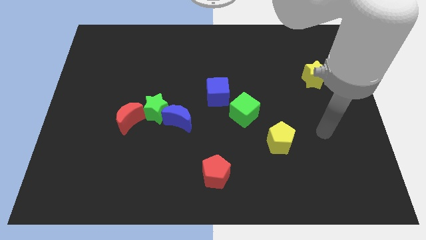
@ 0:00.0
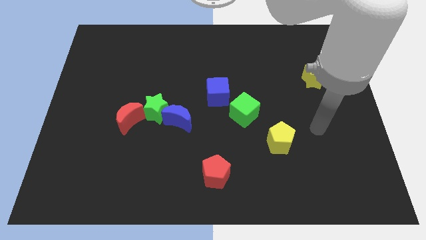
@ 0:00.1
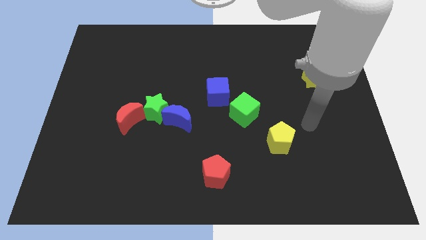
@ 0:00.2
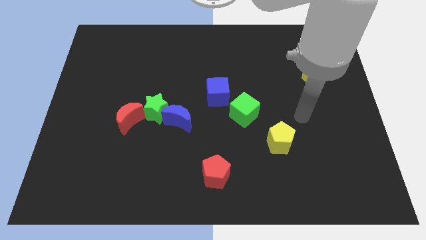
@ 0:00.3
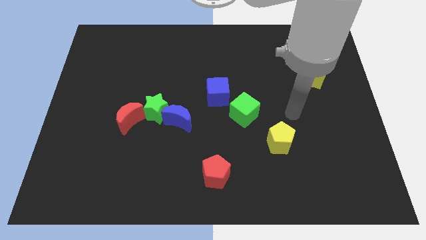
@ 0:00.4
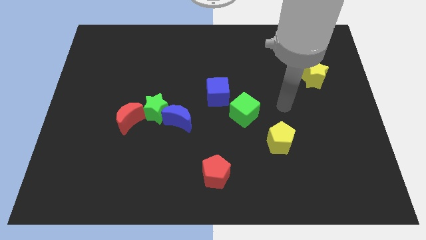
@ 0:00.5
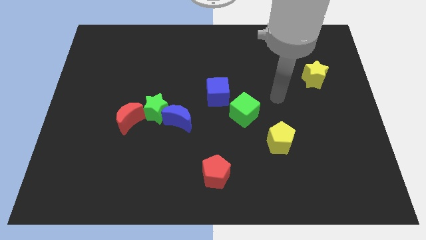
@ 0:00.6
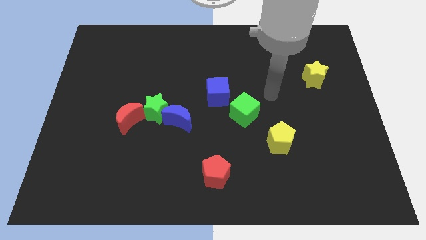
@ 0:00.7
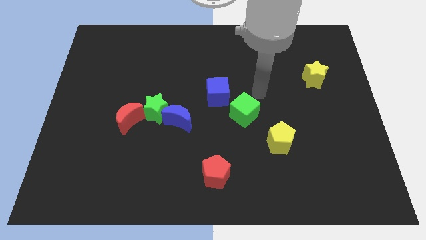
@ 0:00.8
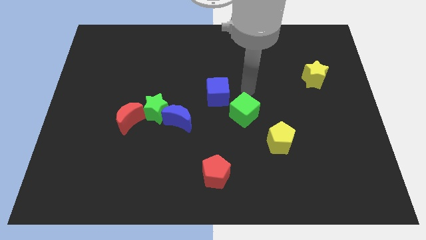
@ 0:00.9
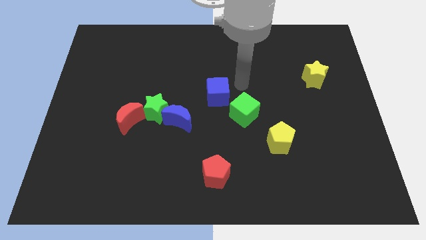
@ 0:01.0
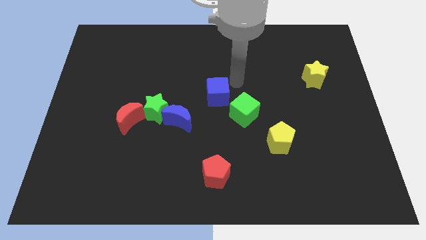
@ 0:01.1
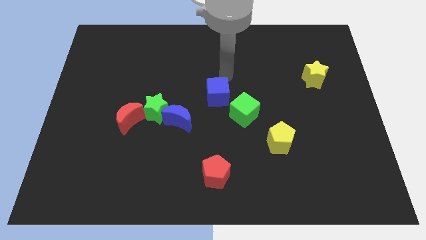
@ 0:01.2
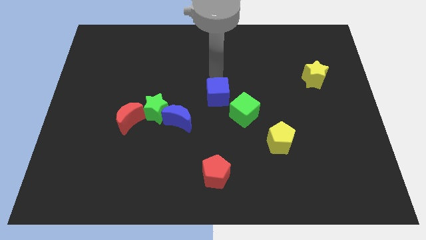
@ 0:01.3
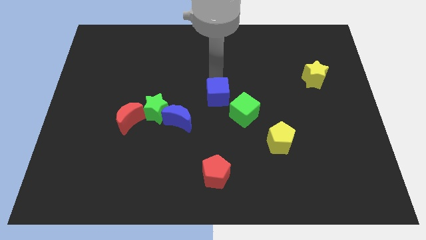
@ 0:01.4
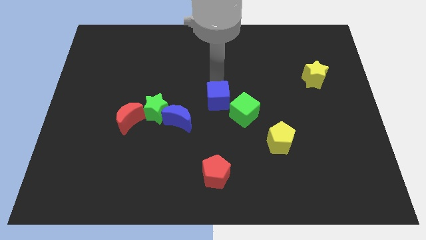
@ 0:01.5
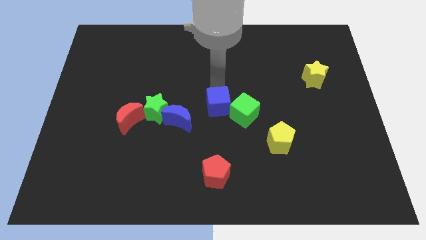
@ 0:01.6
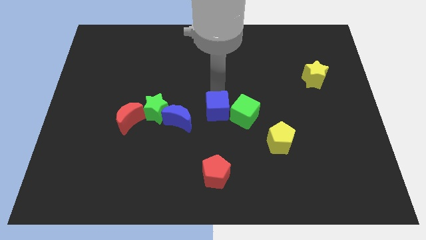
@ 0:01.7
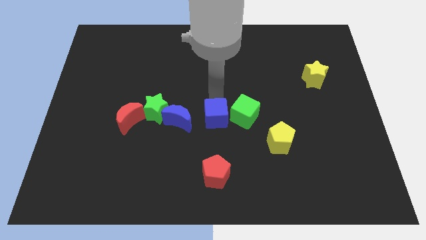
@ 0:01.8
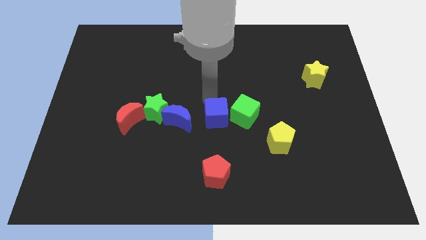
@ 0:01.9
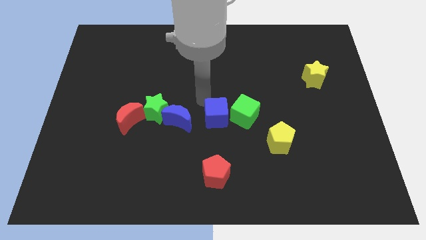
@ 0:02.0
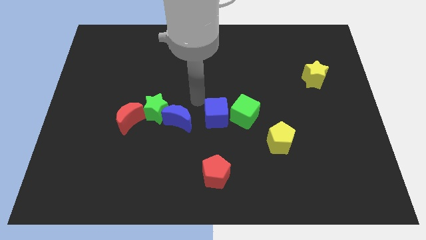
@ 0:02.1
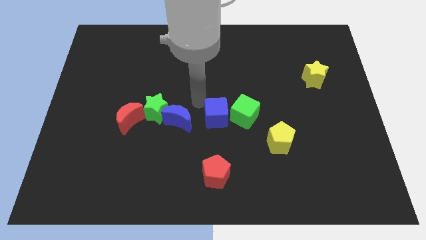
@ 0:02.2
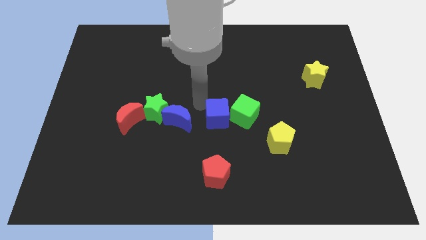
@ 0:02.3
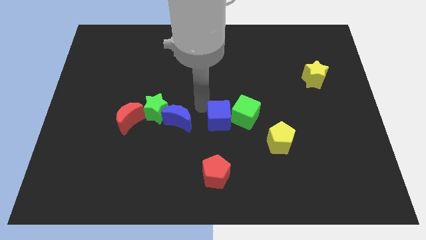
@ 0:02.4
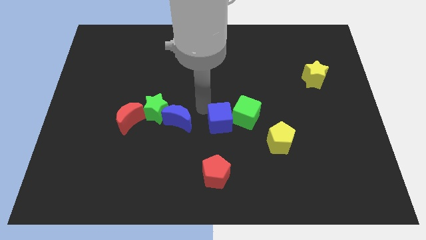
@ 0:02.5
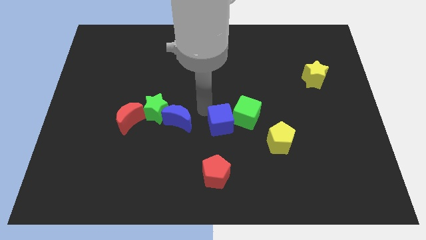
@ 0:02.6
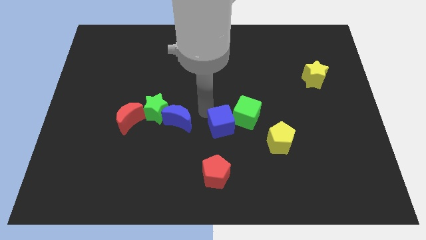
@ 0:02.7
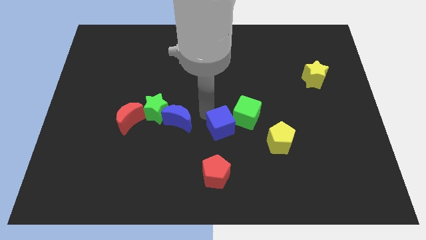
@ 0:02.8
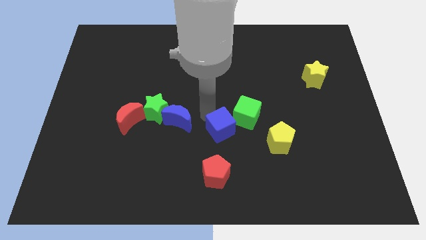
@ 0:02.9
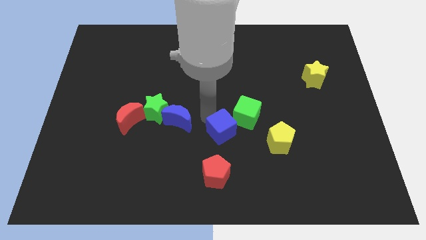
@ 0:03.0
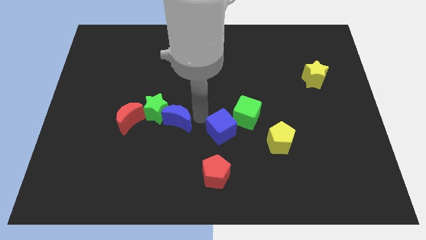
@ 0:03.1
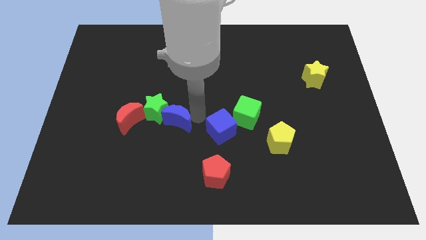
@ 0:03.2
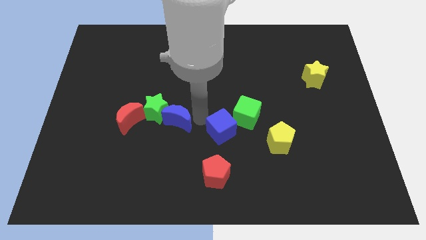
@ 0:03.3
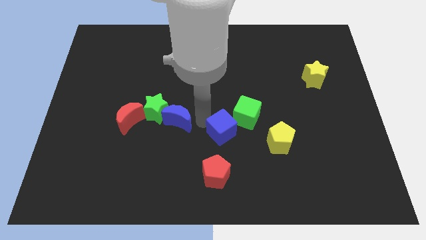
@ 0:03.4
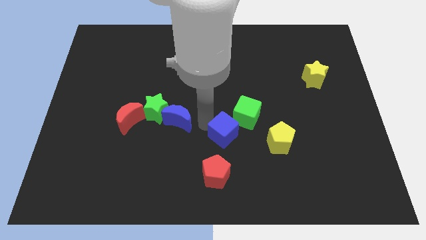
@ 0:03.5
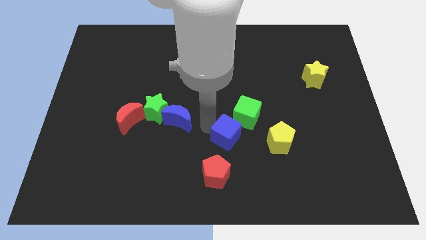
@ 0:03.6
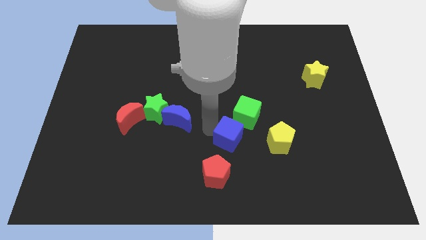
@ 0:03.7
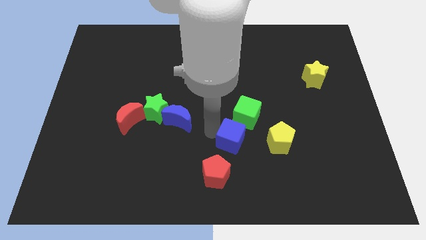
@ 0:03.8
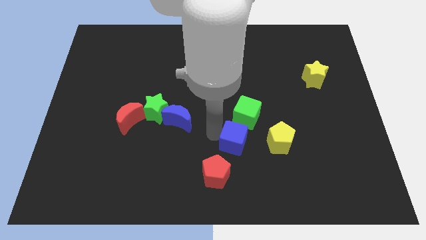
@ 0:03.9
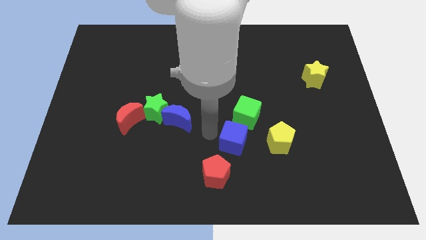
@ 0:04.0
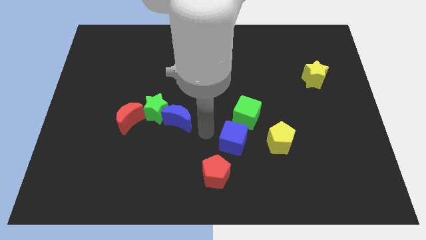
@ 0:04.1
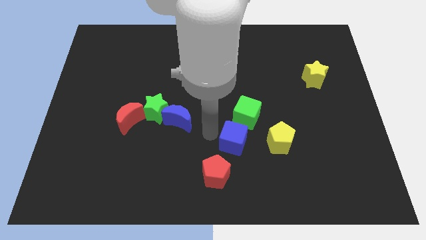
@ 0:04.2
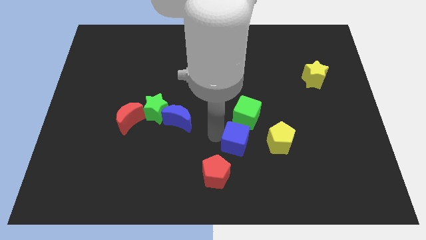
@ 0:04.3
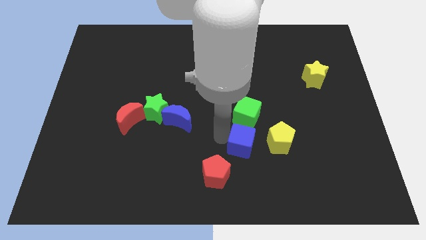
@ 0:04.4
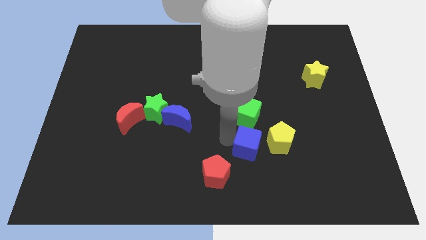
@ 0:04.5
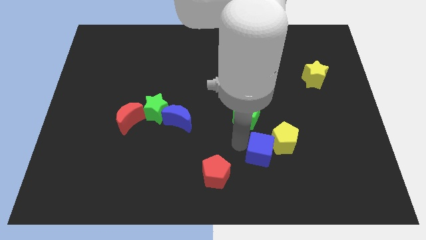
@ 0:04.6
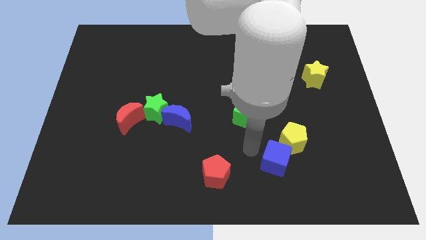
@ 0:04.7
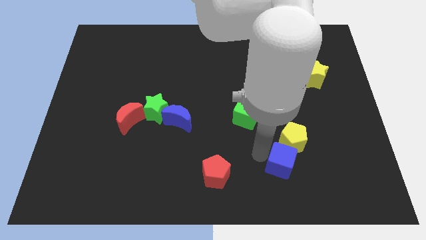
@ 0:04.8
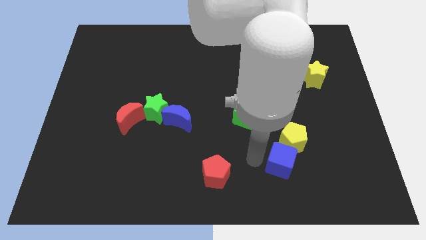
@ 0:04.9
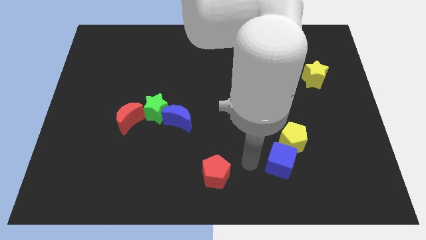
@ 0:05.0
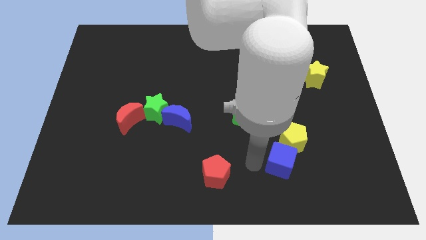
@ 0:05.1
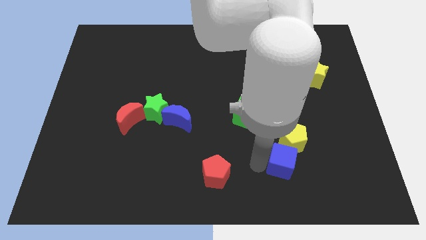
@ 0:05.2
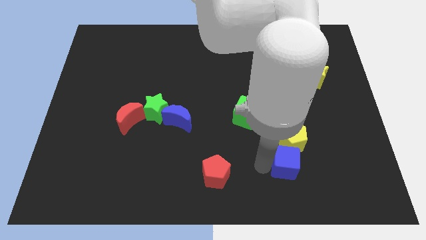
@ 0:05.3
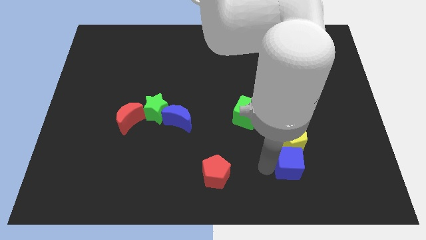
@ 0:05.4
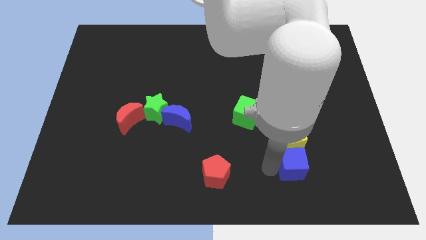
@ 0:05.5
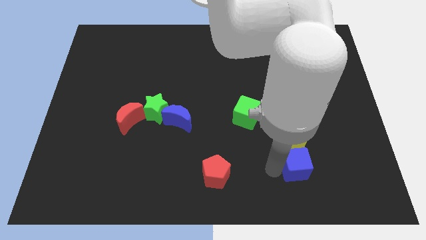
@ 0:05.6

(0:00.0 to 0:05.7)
push the blue cube to the bottom right side of the yellow pentagon

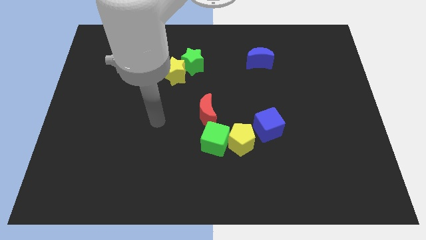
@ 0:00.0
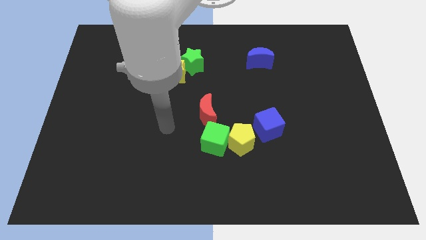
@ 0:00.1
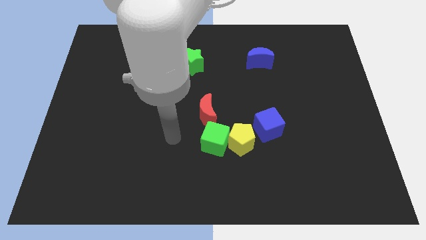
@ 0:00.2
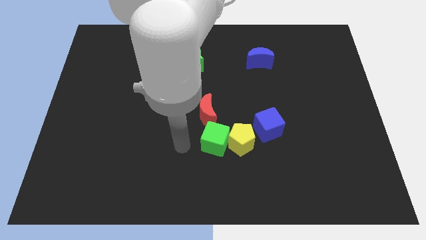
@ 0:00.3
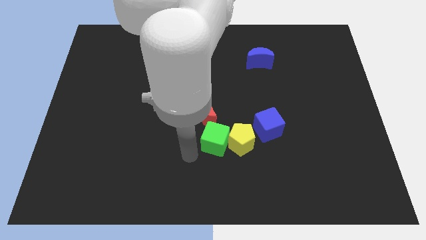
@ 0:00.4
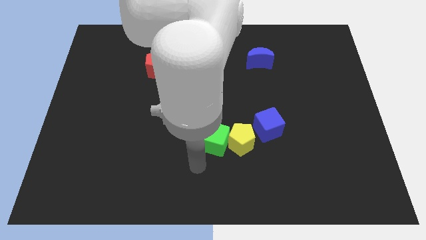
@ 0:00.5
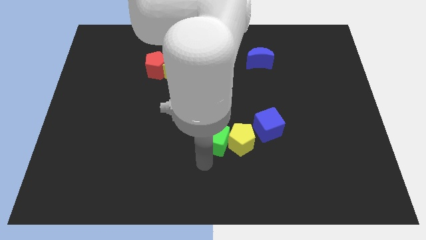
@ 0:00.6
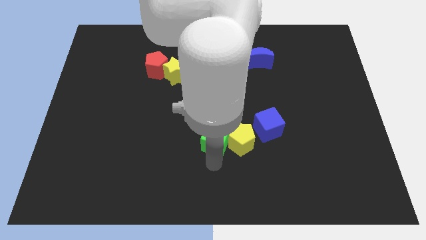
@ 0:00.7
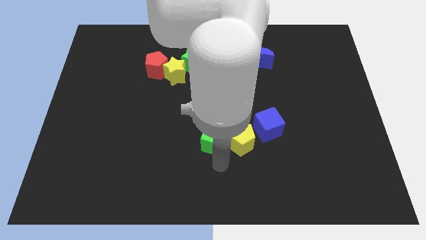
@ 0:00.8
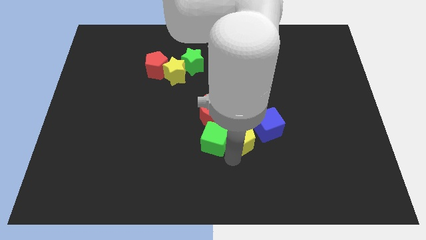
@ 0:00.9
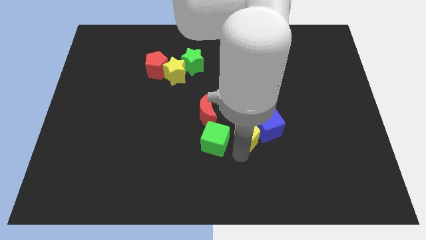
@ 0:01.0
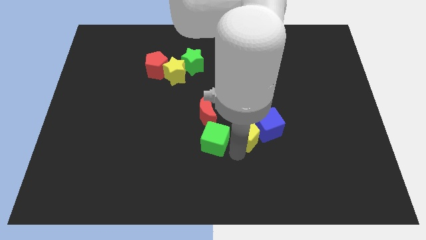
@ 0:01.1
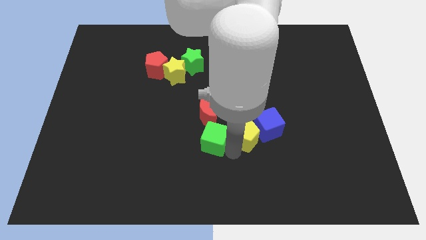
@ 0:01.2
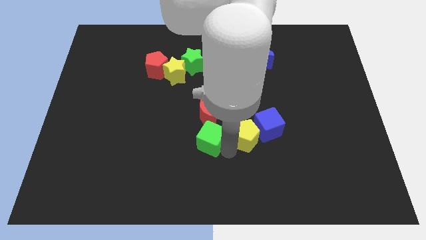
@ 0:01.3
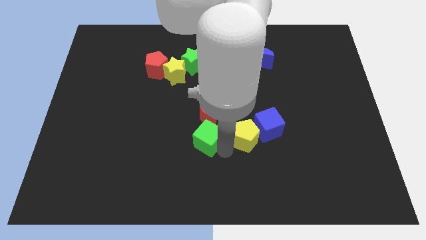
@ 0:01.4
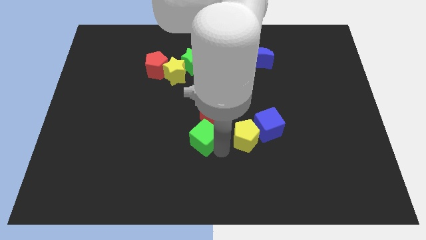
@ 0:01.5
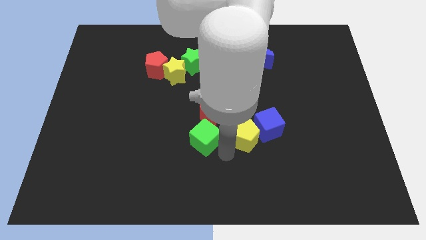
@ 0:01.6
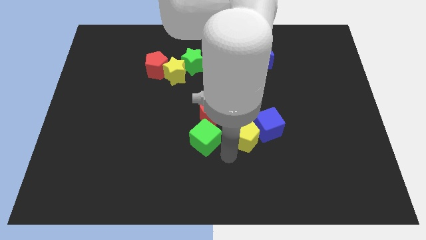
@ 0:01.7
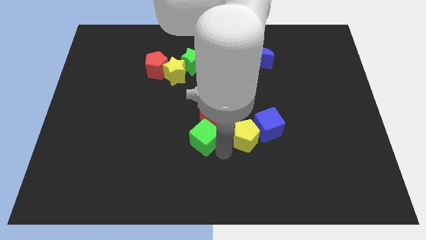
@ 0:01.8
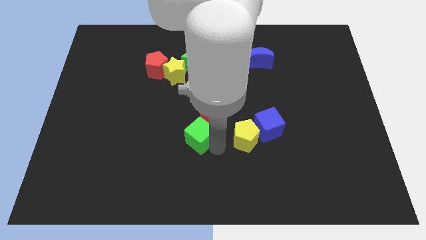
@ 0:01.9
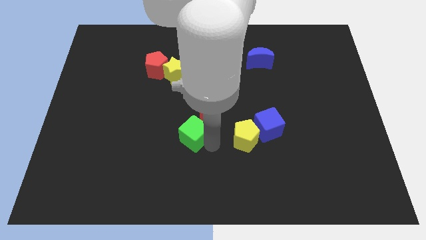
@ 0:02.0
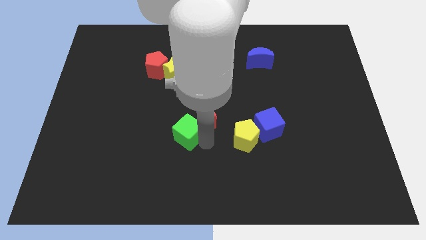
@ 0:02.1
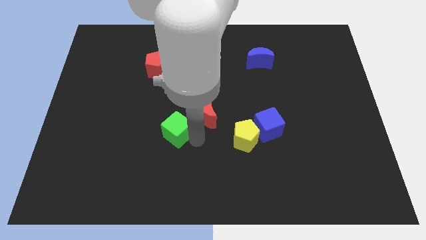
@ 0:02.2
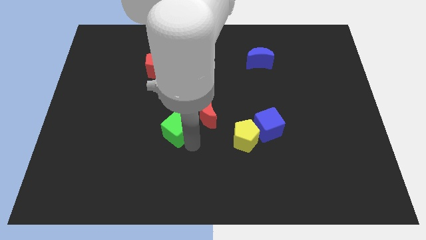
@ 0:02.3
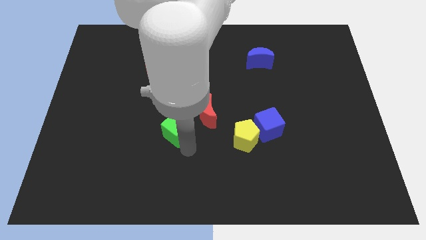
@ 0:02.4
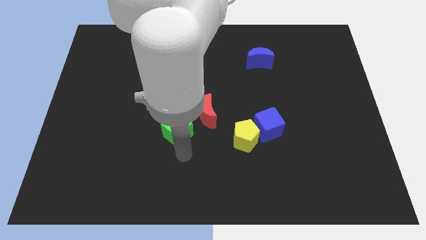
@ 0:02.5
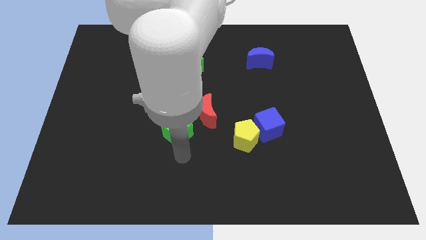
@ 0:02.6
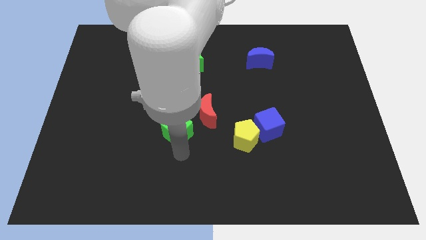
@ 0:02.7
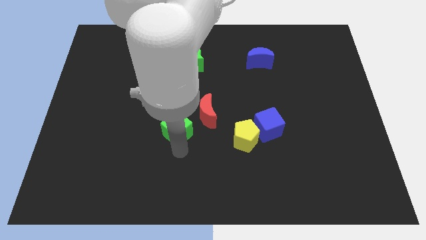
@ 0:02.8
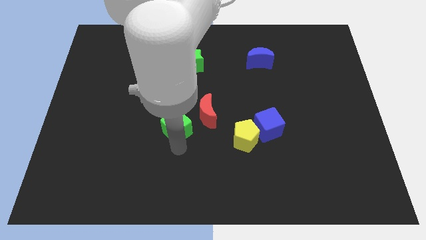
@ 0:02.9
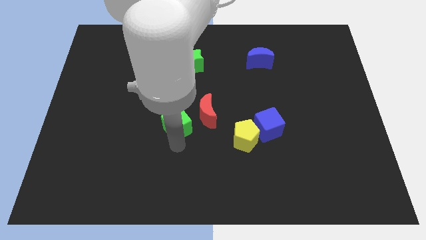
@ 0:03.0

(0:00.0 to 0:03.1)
move the green cube below the yellow star
